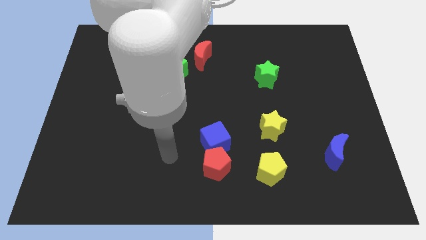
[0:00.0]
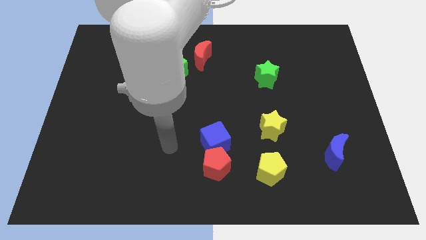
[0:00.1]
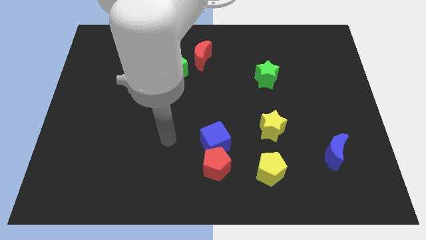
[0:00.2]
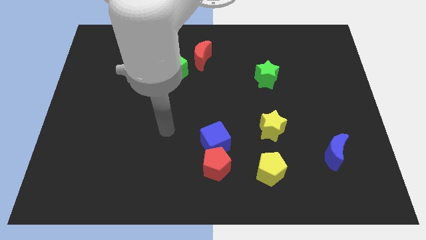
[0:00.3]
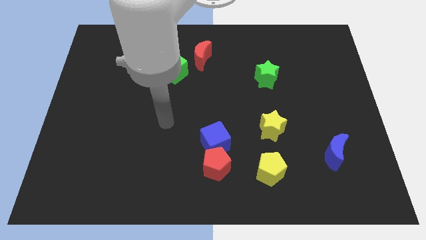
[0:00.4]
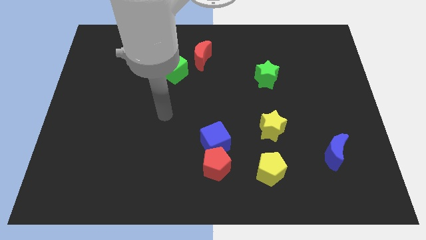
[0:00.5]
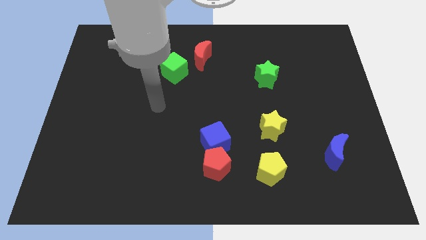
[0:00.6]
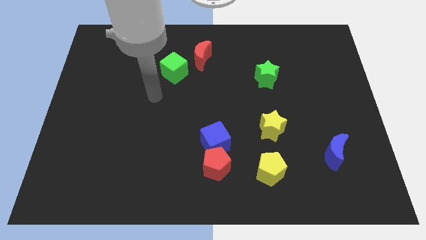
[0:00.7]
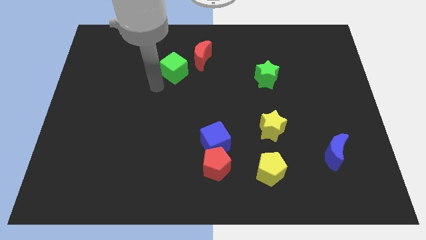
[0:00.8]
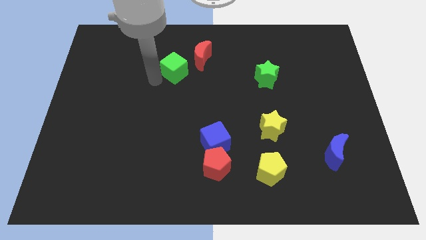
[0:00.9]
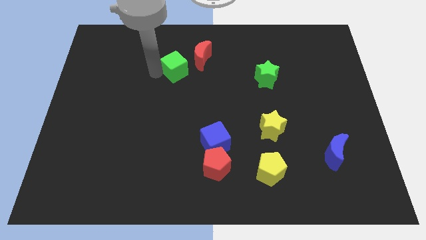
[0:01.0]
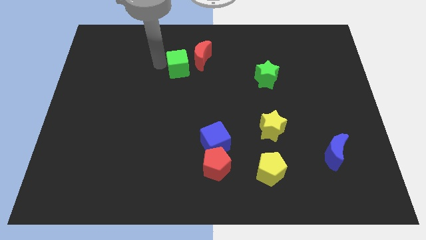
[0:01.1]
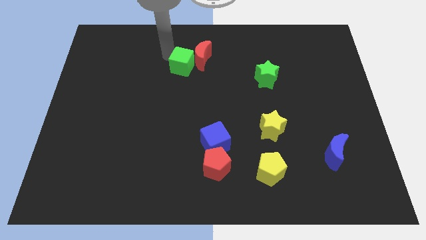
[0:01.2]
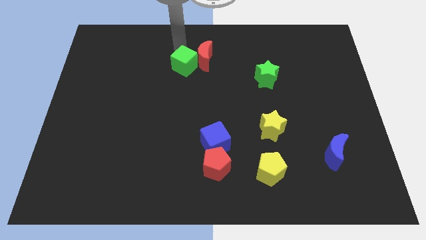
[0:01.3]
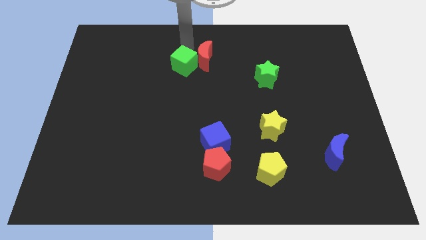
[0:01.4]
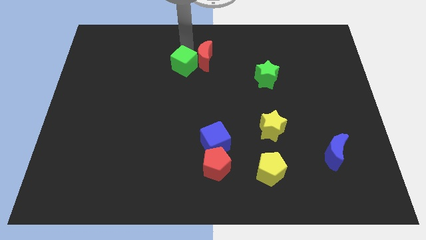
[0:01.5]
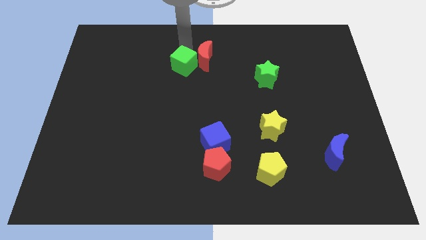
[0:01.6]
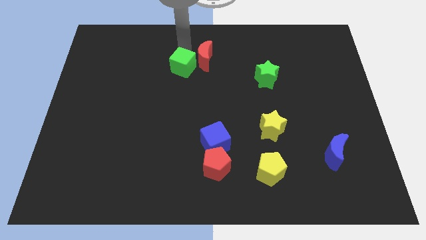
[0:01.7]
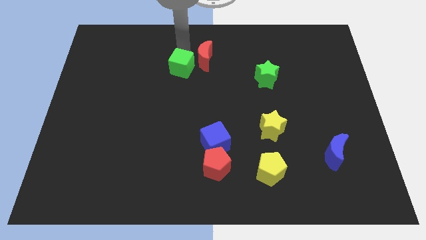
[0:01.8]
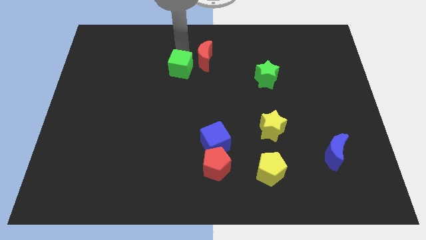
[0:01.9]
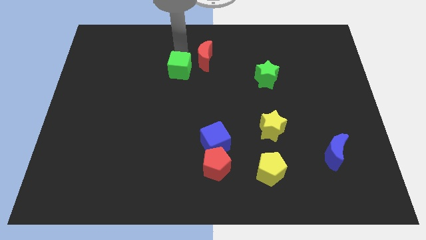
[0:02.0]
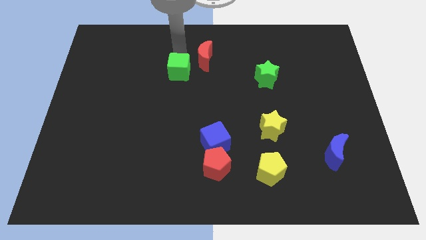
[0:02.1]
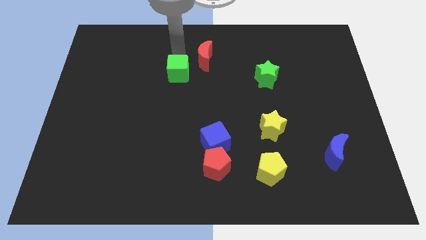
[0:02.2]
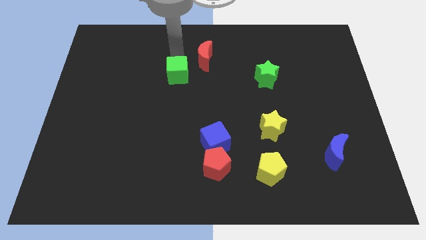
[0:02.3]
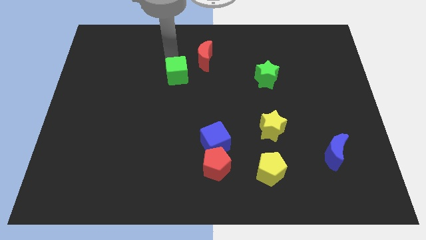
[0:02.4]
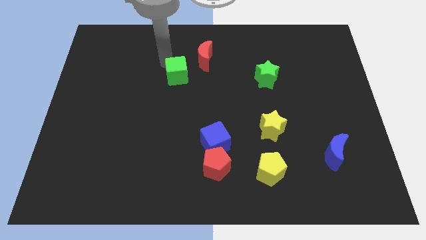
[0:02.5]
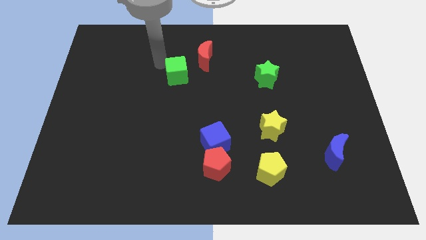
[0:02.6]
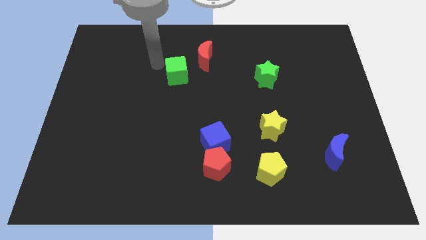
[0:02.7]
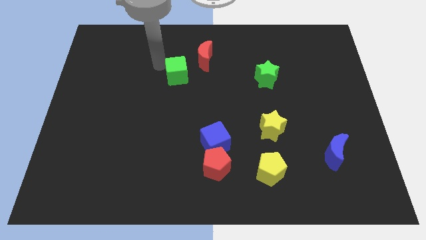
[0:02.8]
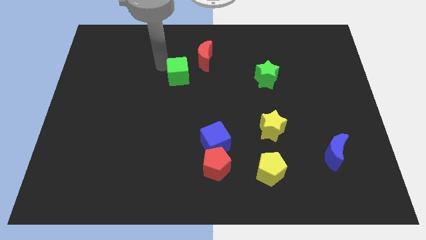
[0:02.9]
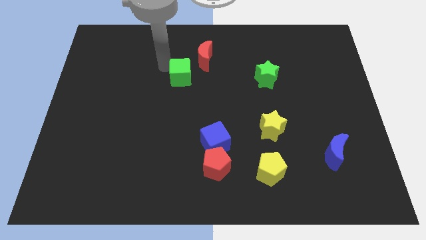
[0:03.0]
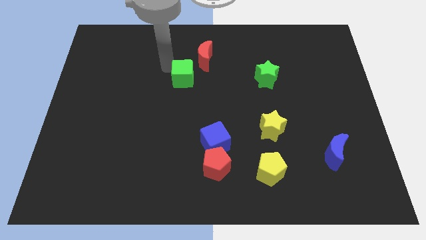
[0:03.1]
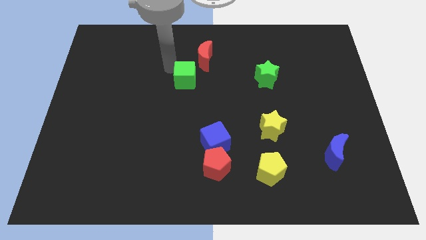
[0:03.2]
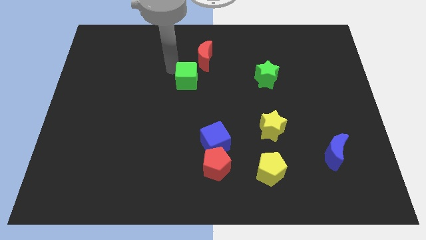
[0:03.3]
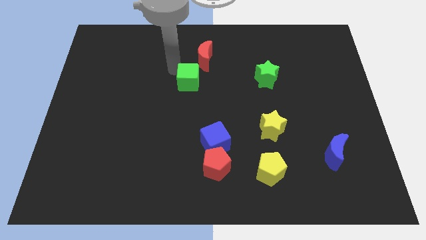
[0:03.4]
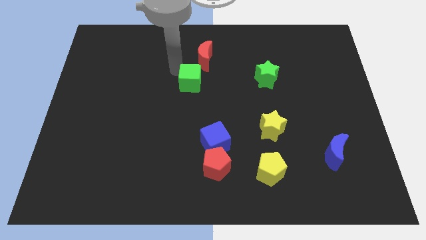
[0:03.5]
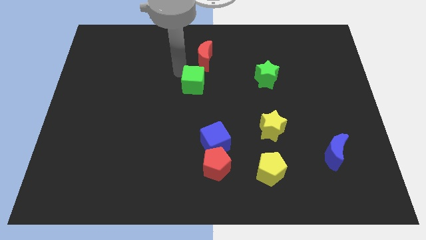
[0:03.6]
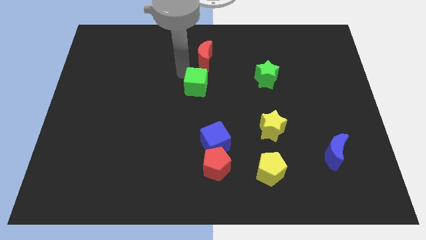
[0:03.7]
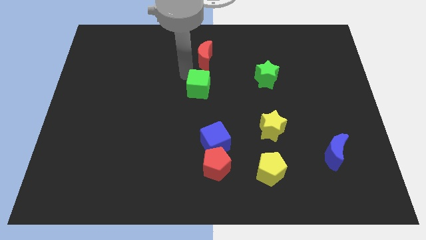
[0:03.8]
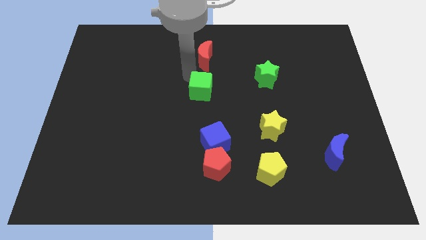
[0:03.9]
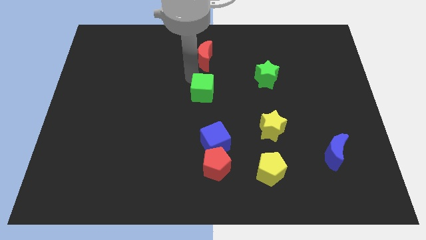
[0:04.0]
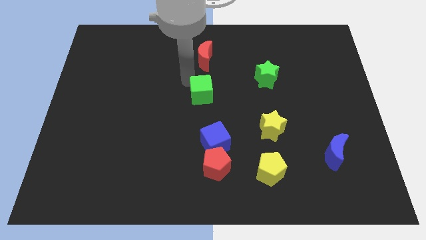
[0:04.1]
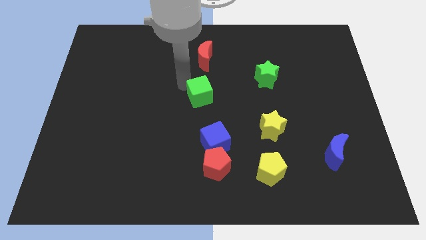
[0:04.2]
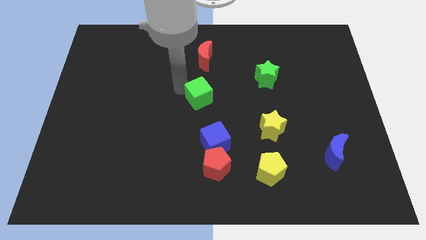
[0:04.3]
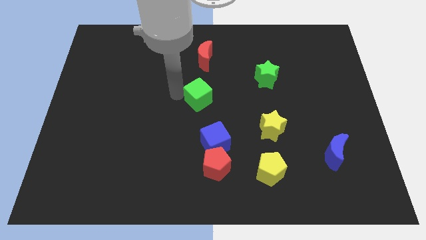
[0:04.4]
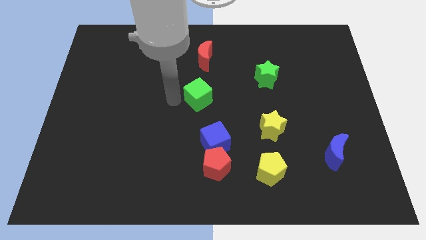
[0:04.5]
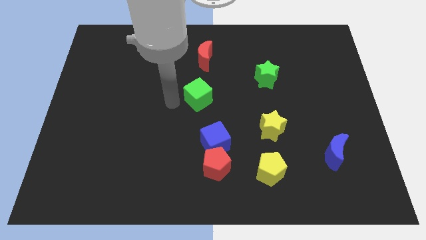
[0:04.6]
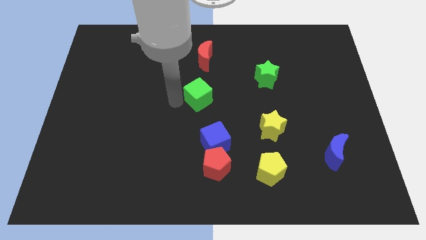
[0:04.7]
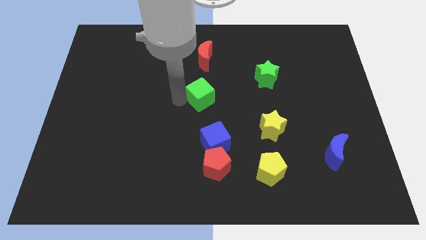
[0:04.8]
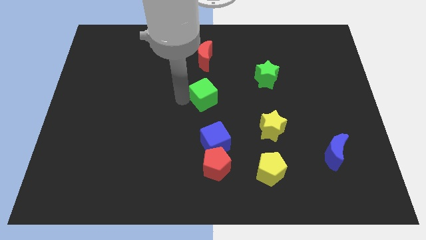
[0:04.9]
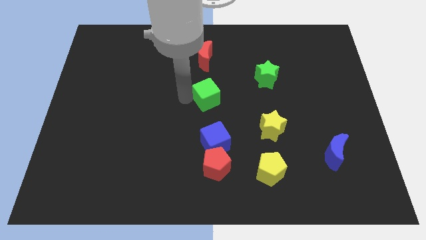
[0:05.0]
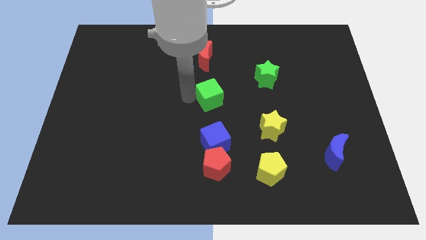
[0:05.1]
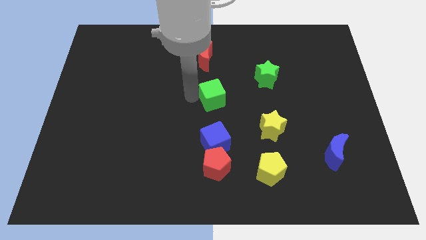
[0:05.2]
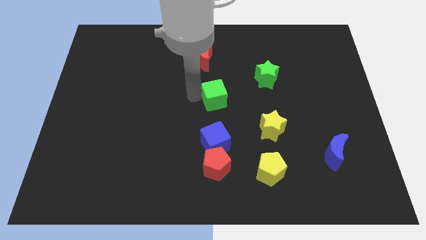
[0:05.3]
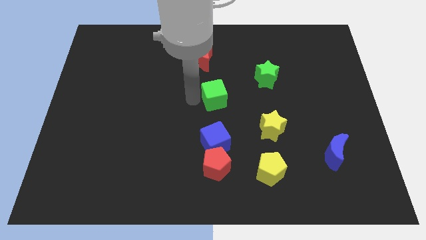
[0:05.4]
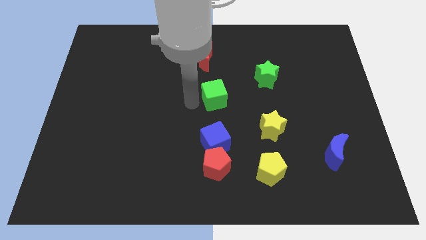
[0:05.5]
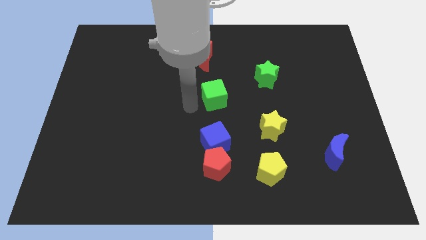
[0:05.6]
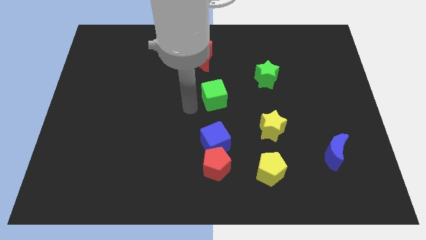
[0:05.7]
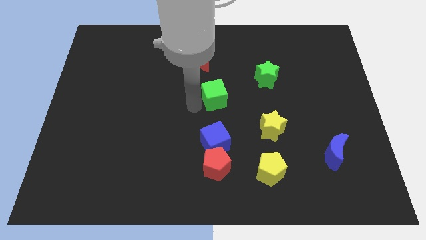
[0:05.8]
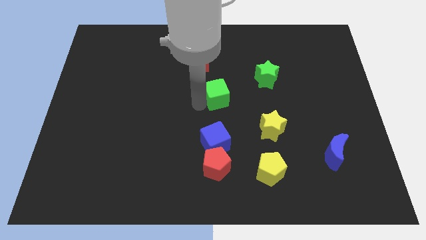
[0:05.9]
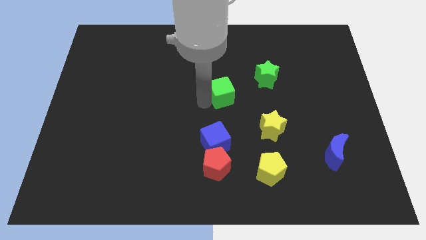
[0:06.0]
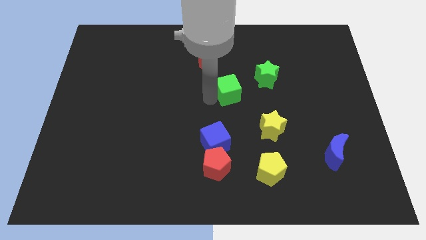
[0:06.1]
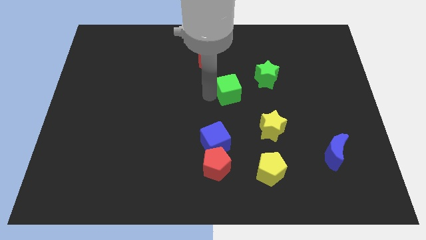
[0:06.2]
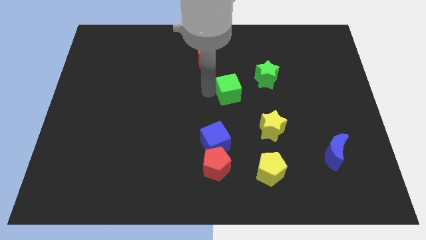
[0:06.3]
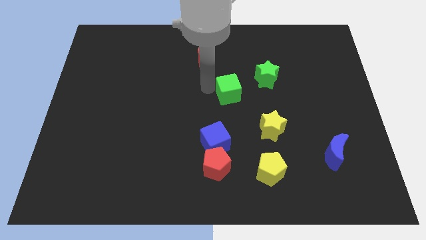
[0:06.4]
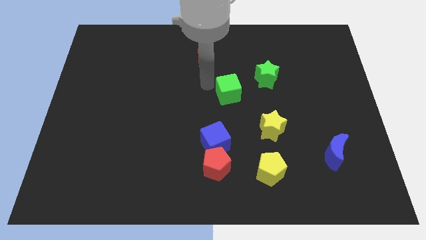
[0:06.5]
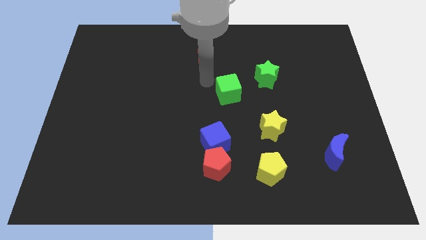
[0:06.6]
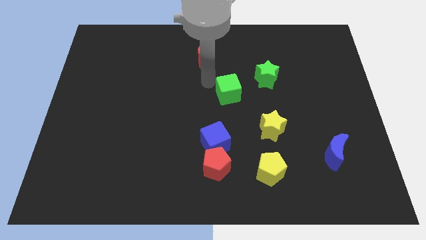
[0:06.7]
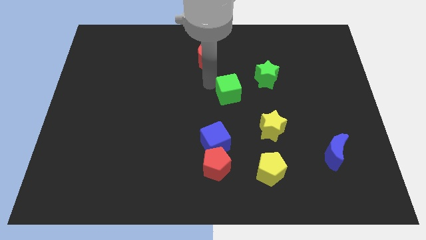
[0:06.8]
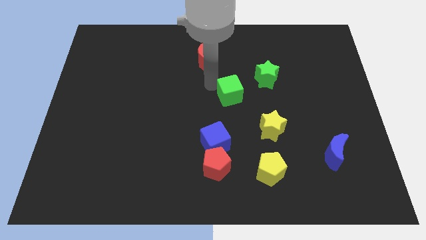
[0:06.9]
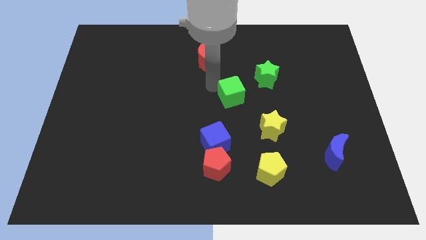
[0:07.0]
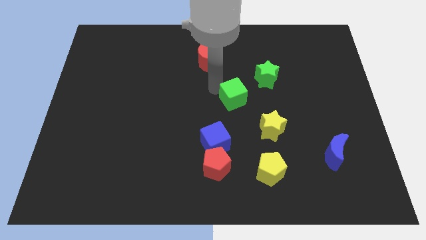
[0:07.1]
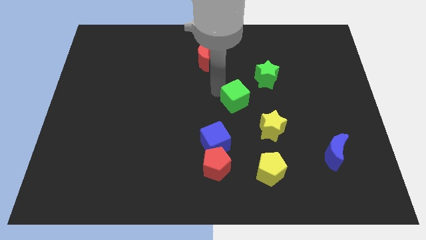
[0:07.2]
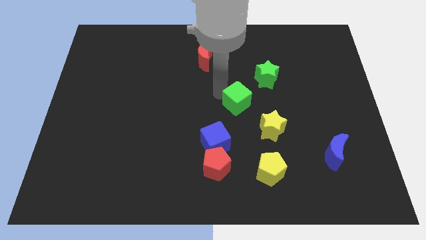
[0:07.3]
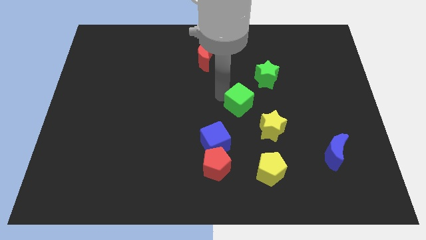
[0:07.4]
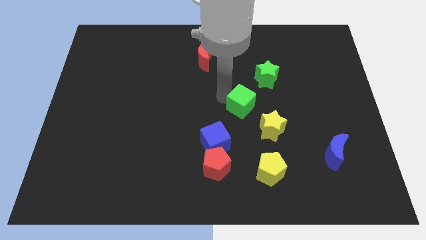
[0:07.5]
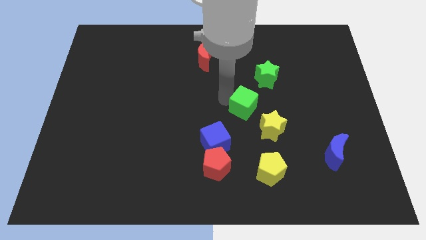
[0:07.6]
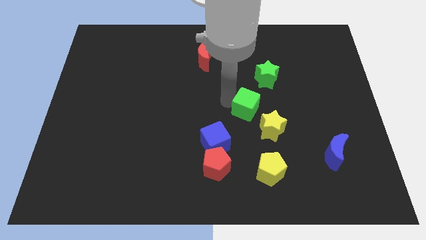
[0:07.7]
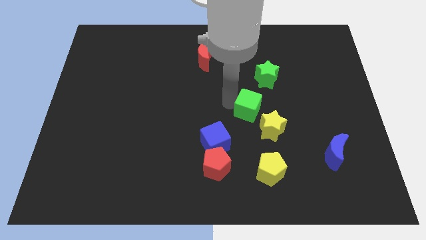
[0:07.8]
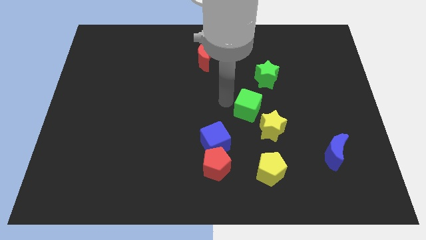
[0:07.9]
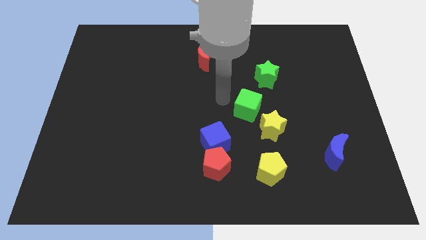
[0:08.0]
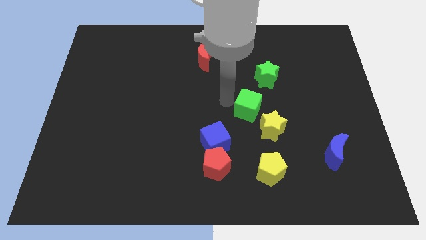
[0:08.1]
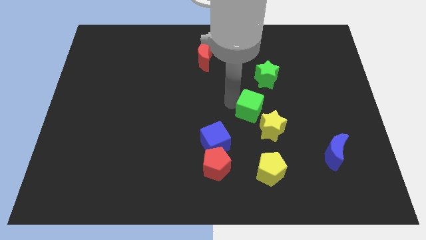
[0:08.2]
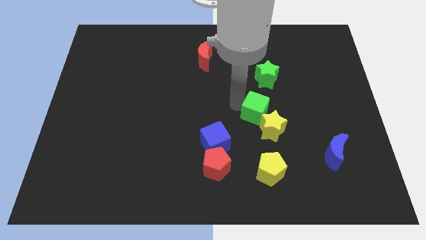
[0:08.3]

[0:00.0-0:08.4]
push the green cube to the top of the yellow pentagon
